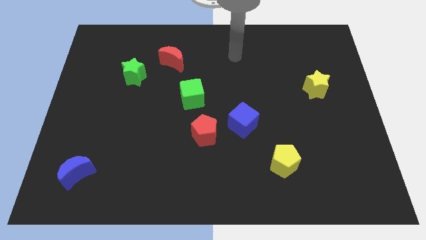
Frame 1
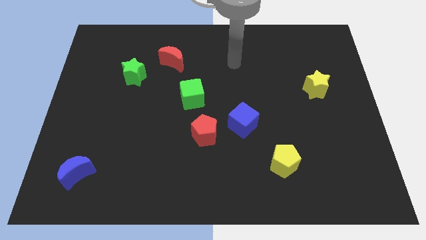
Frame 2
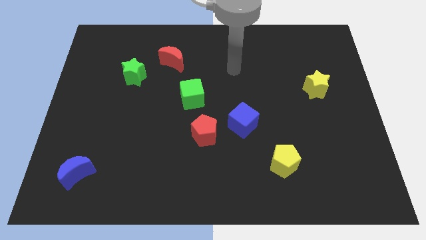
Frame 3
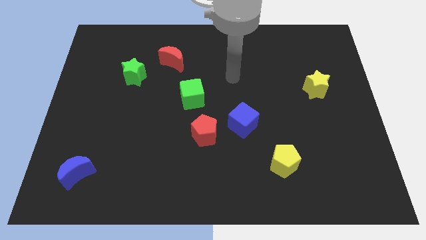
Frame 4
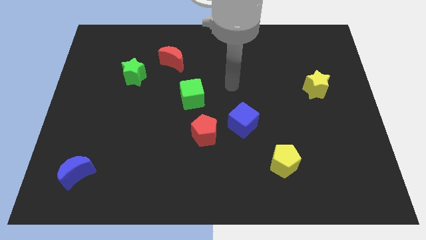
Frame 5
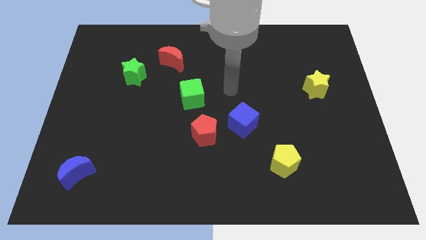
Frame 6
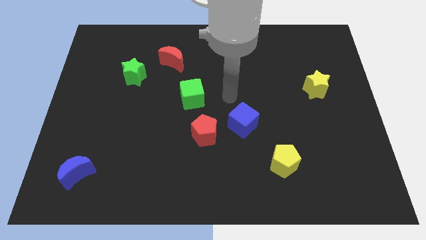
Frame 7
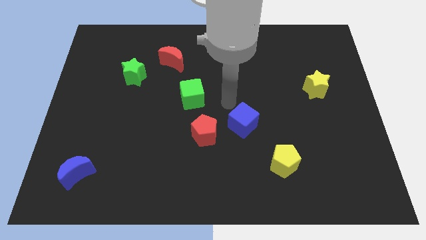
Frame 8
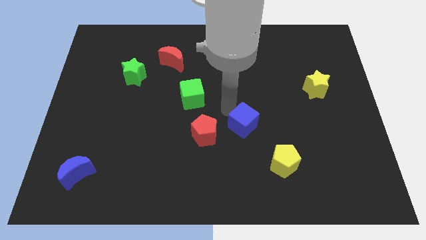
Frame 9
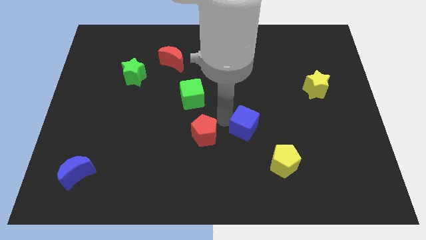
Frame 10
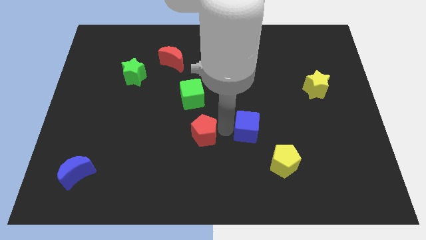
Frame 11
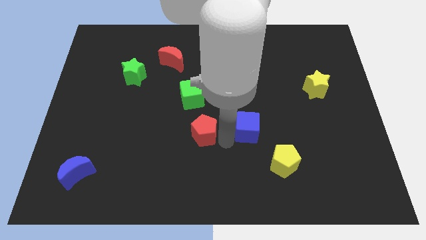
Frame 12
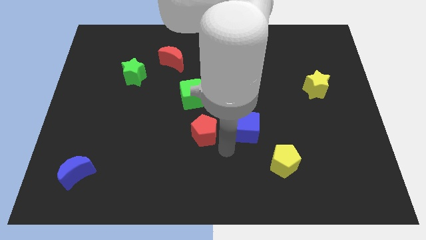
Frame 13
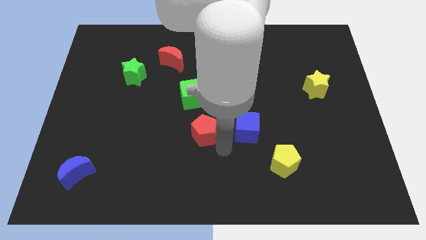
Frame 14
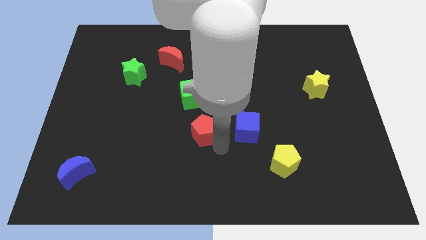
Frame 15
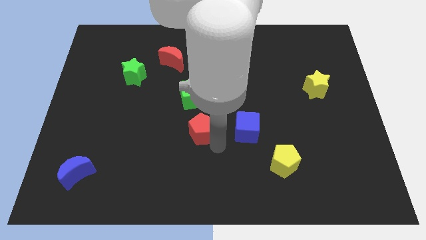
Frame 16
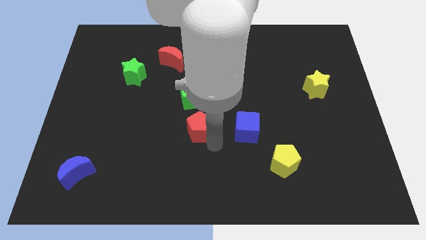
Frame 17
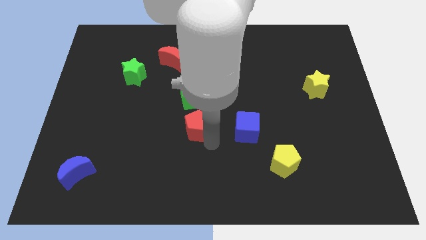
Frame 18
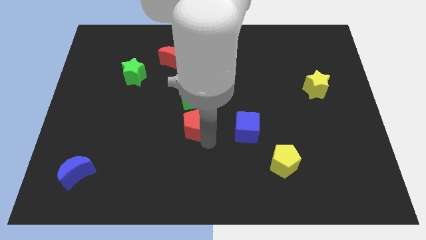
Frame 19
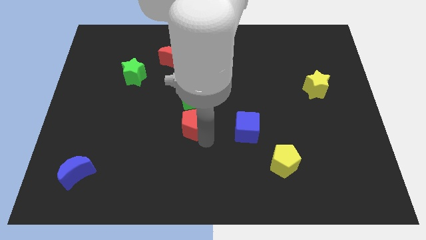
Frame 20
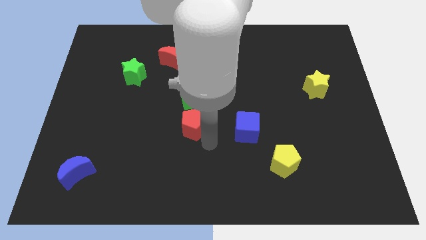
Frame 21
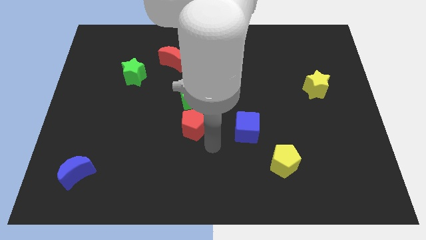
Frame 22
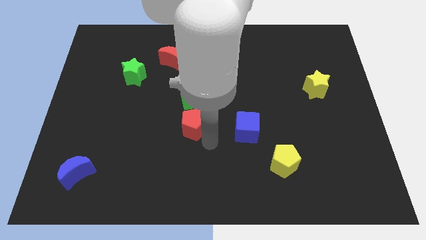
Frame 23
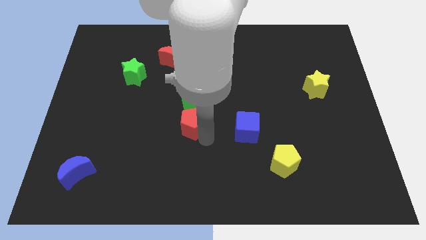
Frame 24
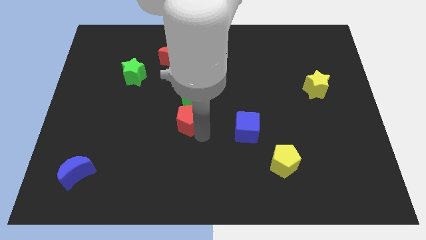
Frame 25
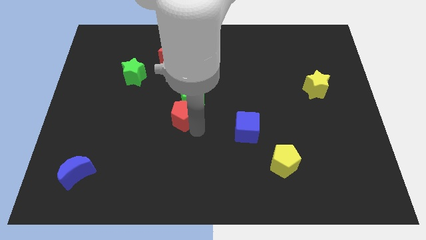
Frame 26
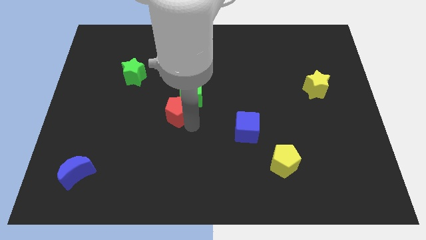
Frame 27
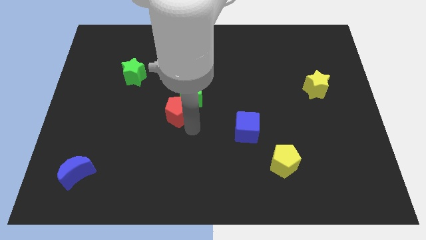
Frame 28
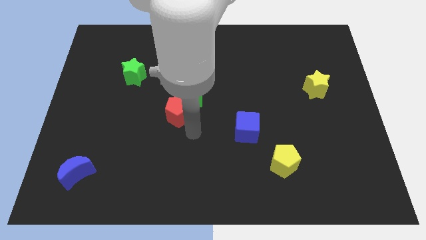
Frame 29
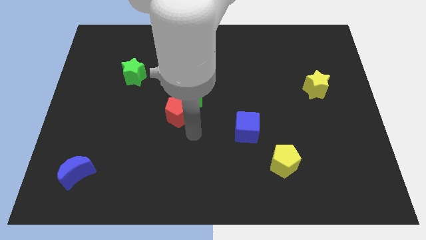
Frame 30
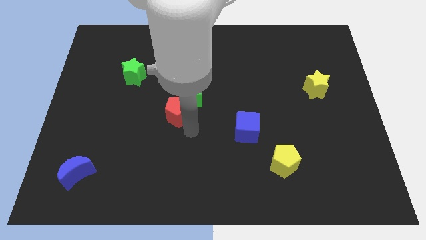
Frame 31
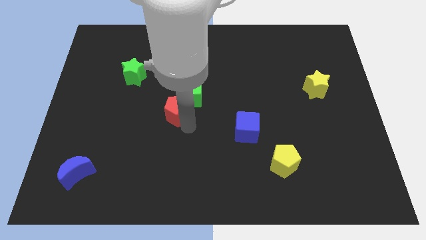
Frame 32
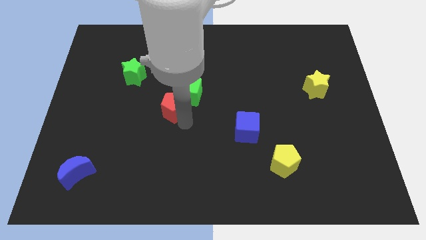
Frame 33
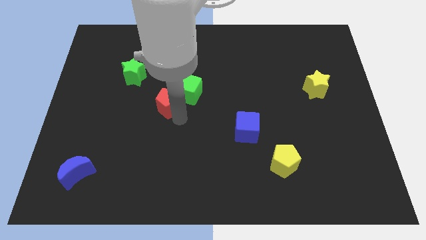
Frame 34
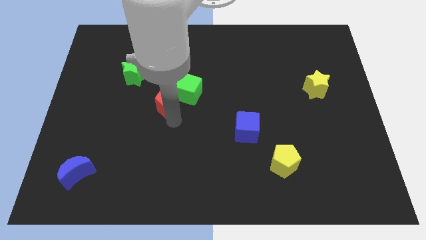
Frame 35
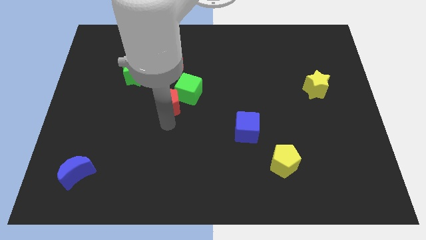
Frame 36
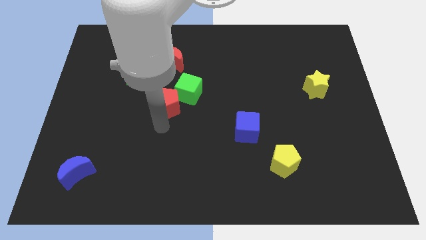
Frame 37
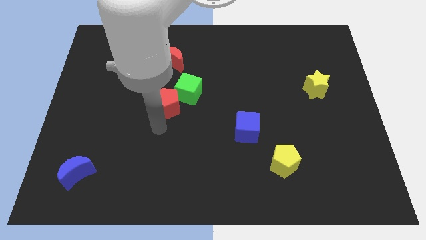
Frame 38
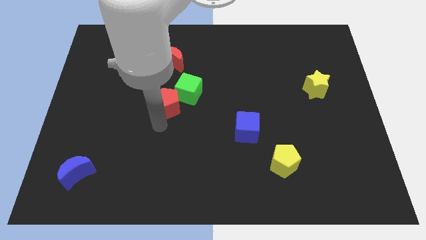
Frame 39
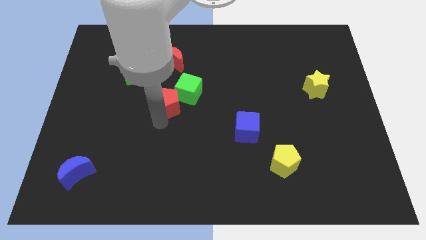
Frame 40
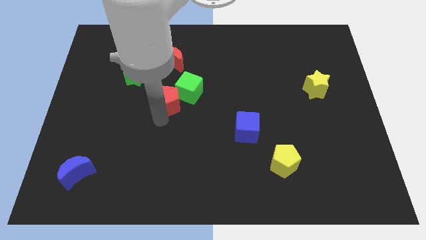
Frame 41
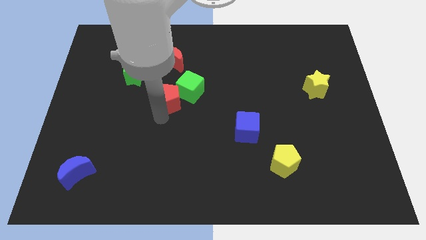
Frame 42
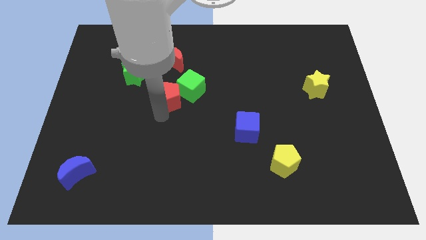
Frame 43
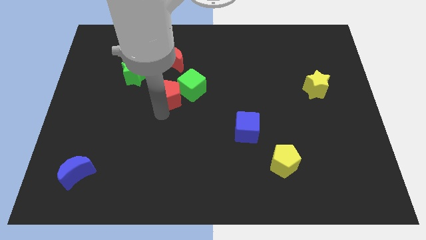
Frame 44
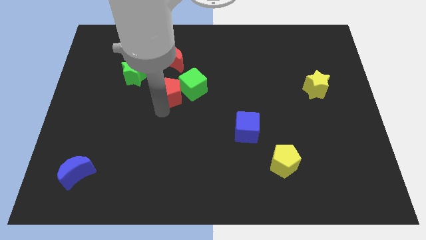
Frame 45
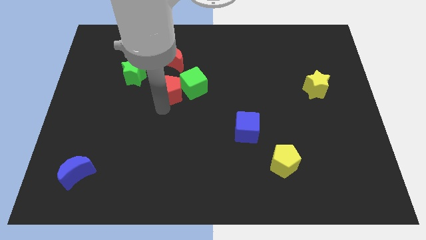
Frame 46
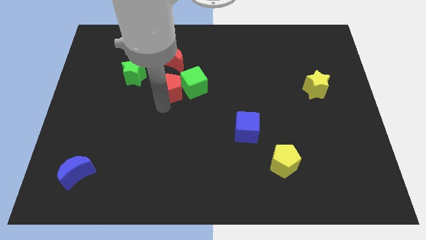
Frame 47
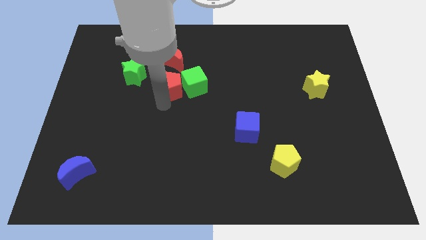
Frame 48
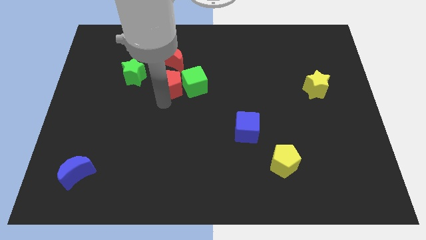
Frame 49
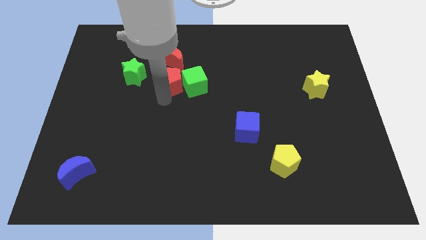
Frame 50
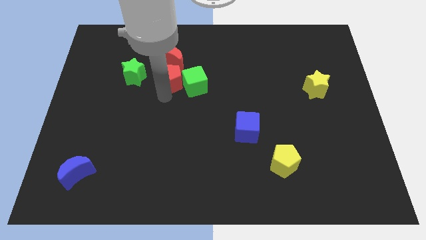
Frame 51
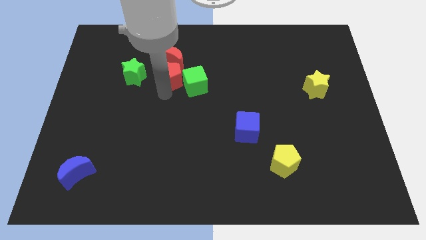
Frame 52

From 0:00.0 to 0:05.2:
move the red pentagon to the red moon

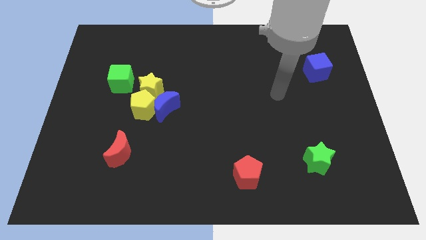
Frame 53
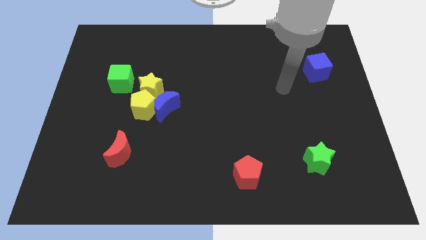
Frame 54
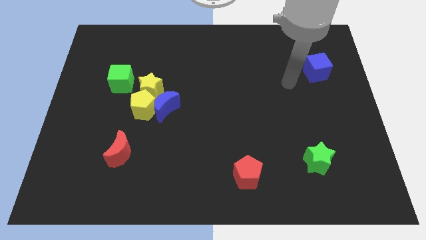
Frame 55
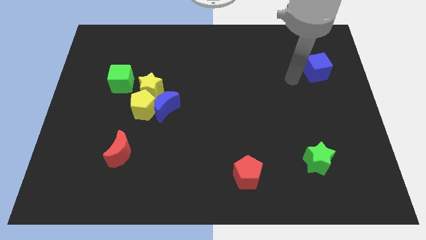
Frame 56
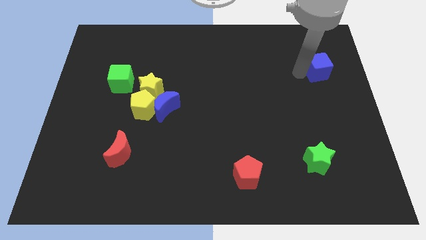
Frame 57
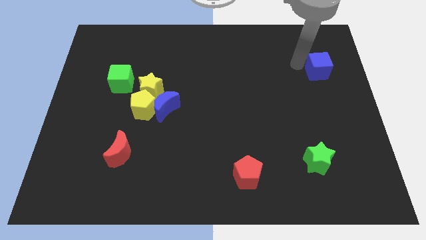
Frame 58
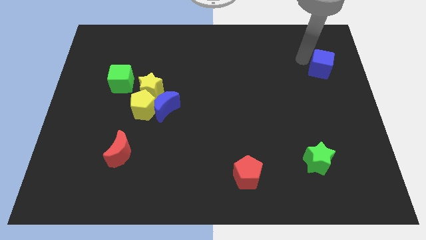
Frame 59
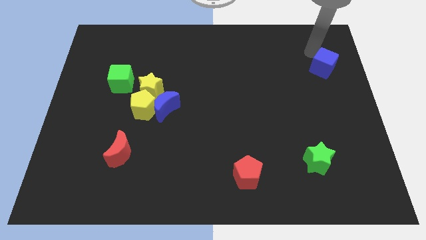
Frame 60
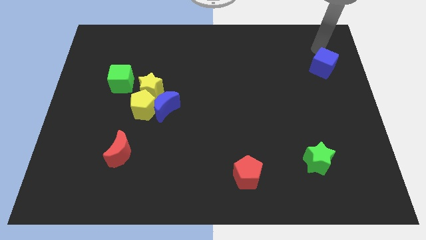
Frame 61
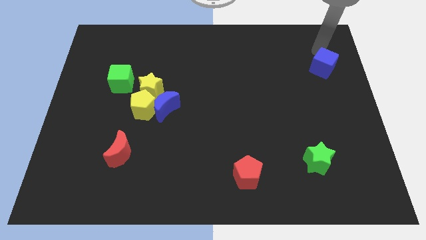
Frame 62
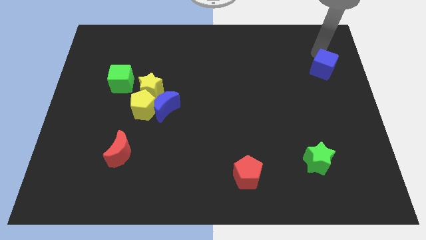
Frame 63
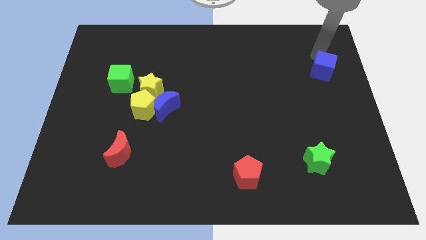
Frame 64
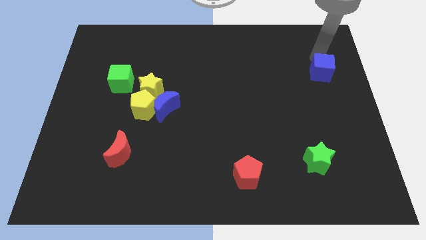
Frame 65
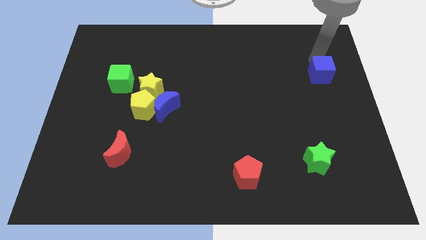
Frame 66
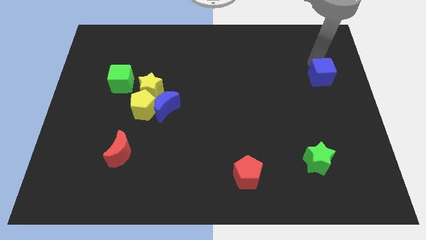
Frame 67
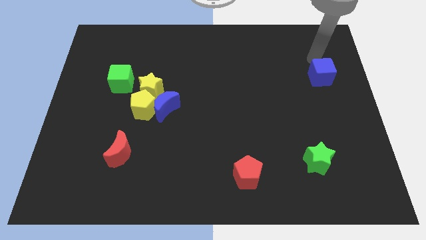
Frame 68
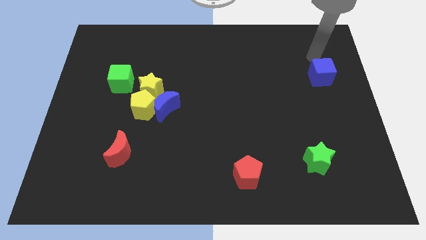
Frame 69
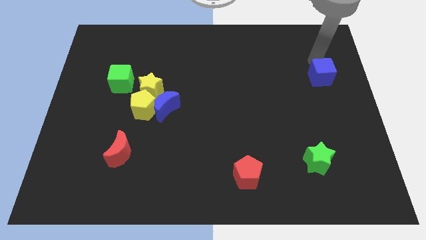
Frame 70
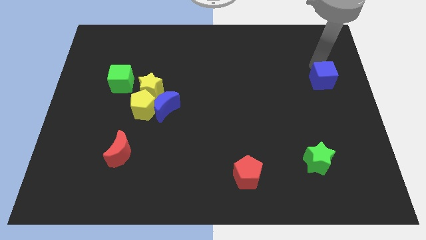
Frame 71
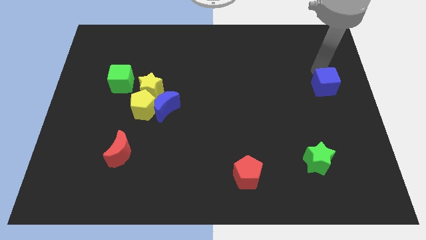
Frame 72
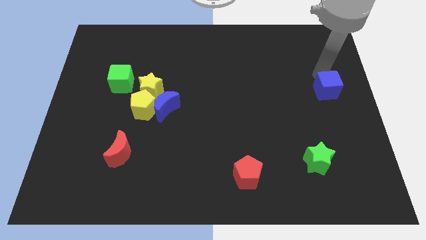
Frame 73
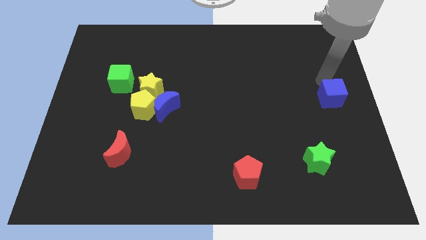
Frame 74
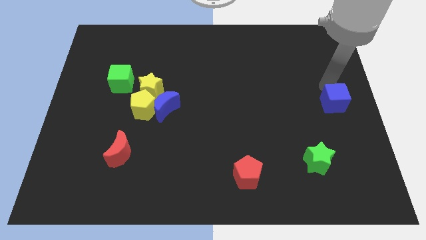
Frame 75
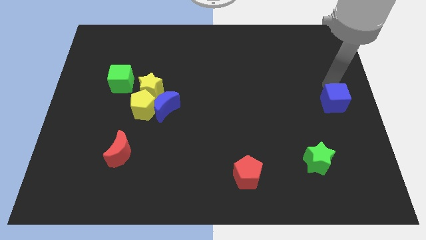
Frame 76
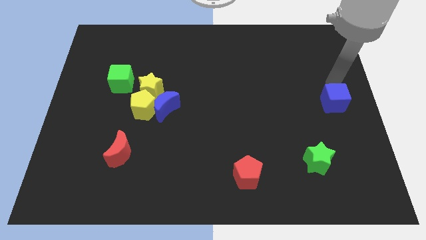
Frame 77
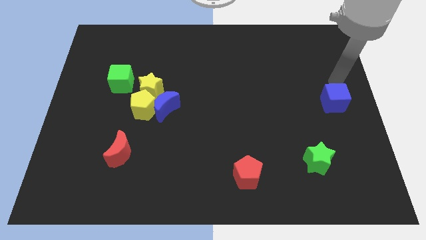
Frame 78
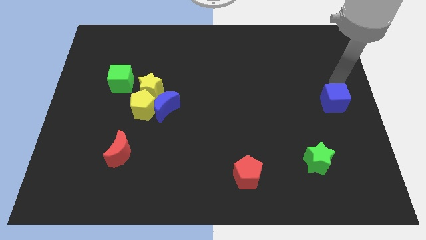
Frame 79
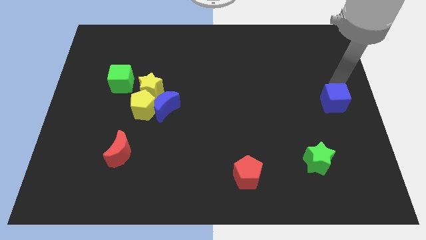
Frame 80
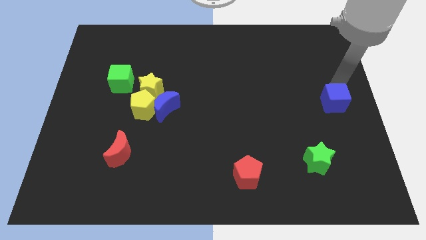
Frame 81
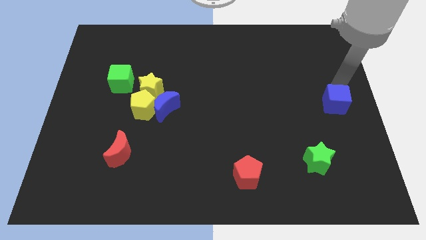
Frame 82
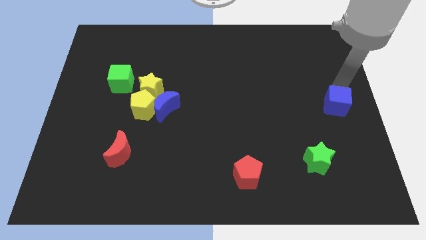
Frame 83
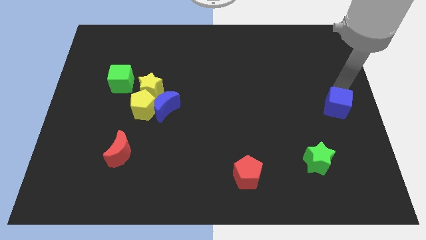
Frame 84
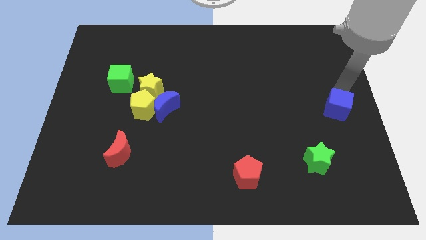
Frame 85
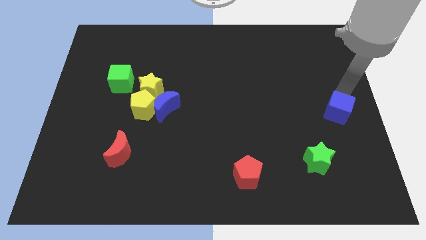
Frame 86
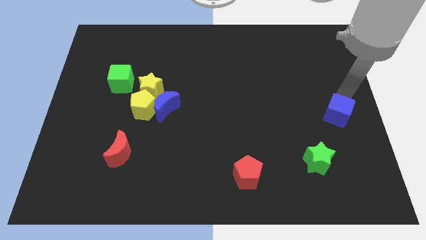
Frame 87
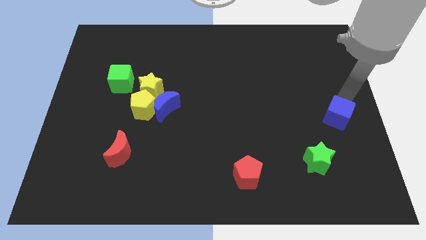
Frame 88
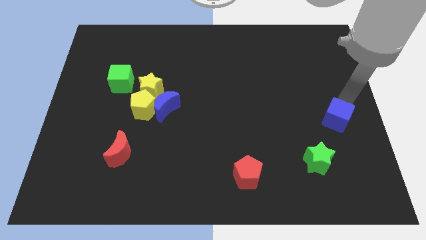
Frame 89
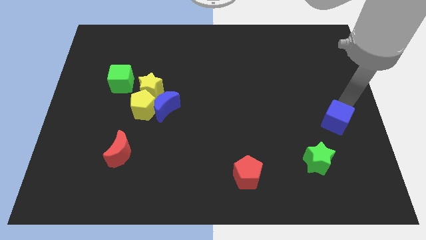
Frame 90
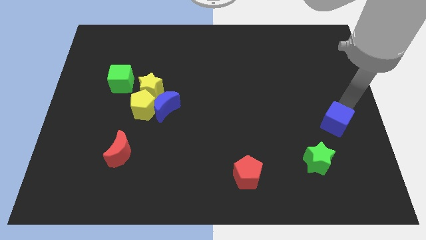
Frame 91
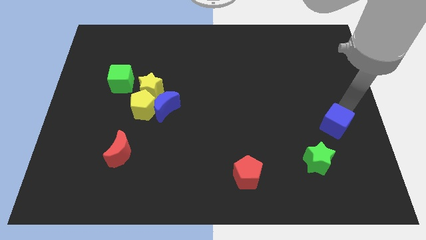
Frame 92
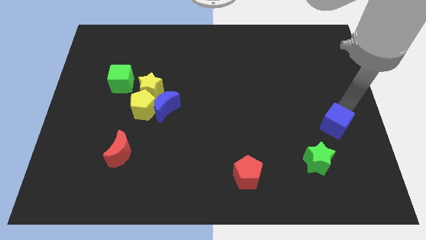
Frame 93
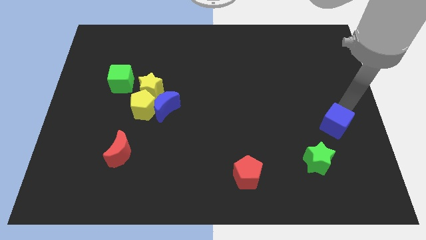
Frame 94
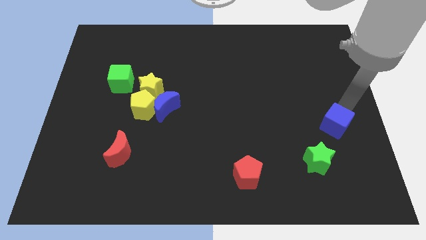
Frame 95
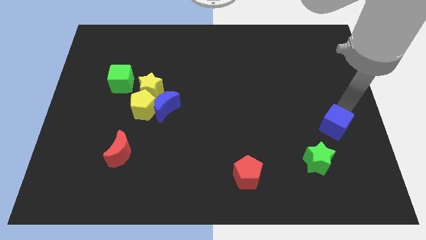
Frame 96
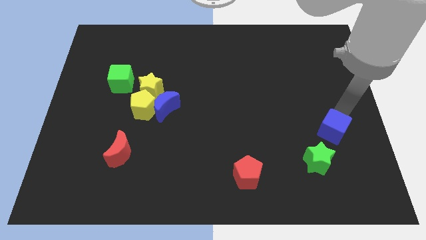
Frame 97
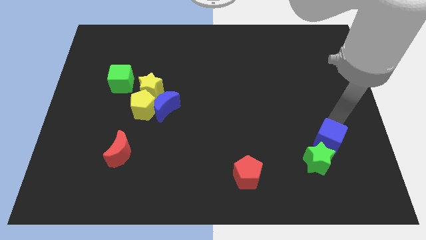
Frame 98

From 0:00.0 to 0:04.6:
slide the blue cube to the green star
